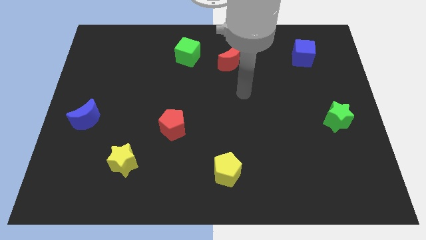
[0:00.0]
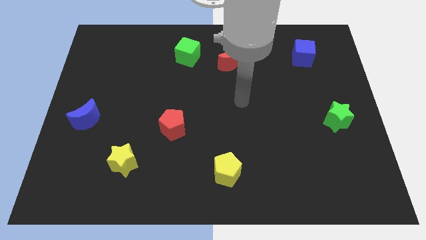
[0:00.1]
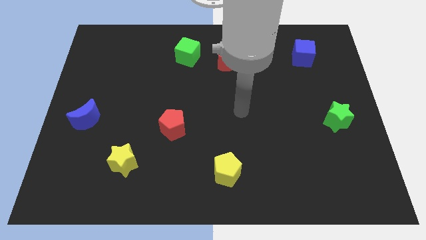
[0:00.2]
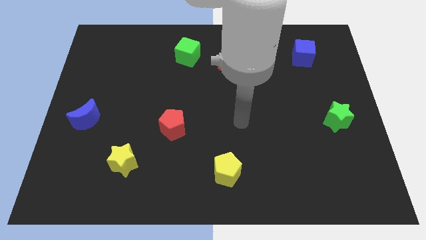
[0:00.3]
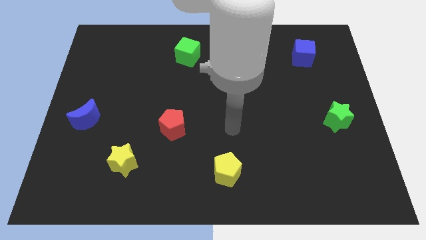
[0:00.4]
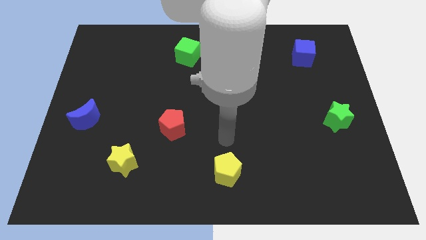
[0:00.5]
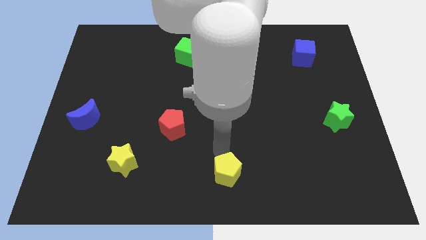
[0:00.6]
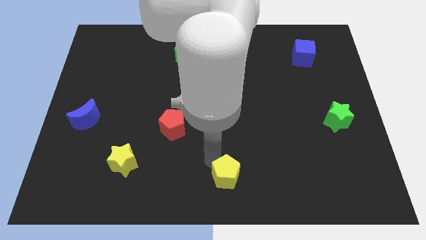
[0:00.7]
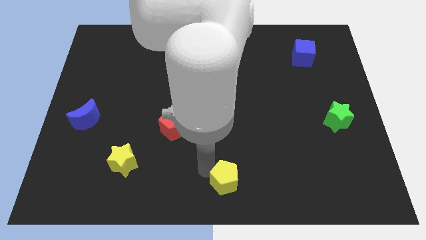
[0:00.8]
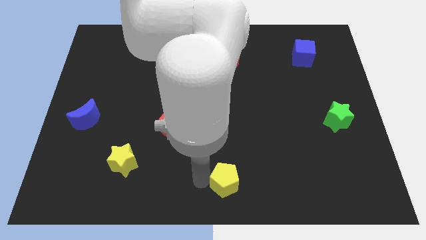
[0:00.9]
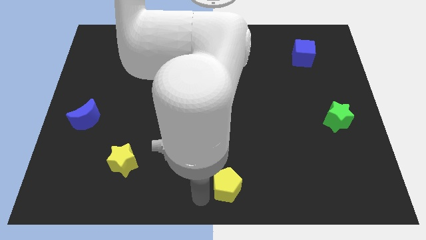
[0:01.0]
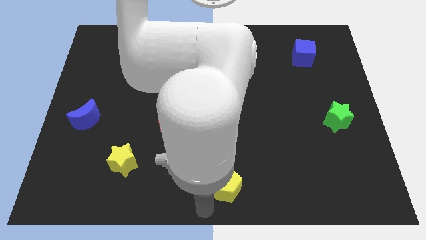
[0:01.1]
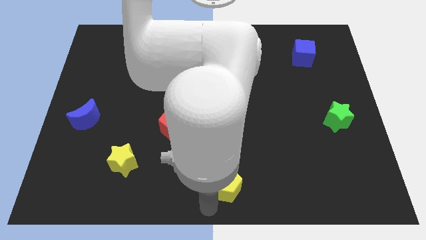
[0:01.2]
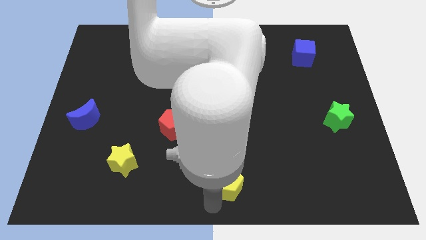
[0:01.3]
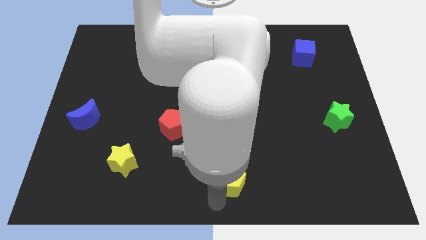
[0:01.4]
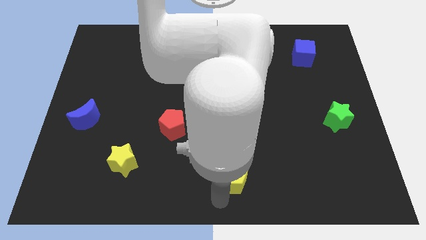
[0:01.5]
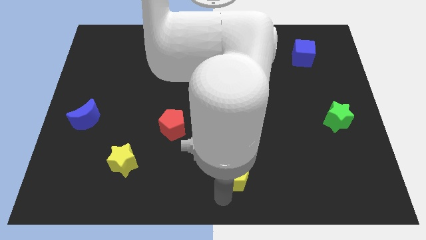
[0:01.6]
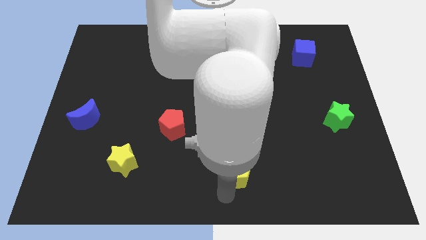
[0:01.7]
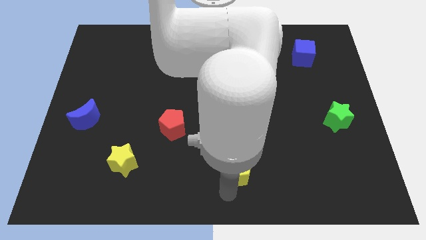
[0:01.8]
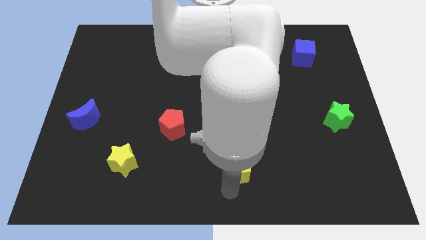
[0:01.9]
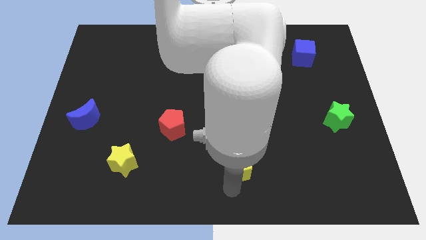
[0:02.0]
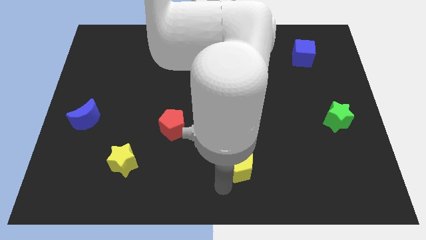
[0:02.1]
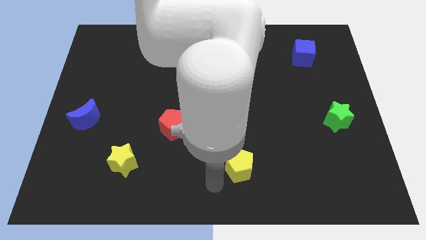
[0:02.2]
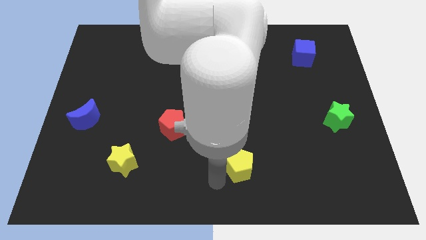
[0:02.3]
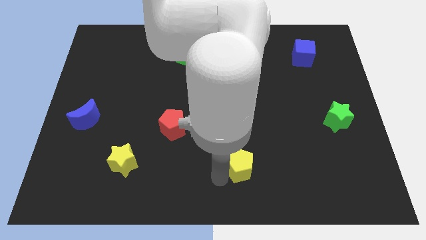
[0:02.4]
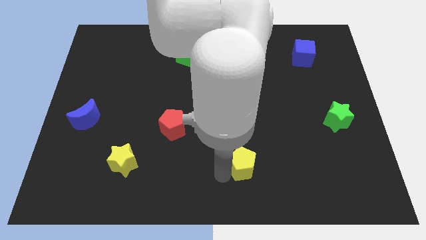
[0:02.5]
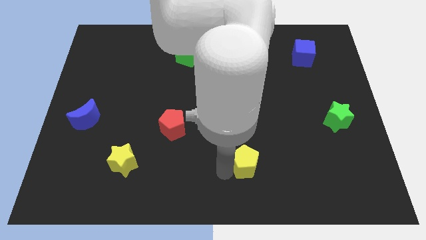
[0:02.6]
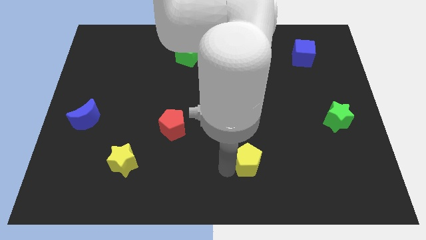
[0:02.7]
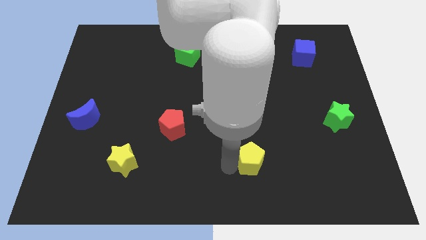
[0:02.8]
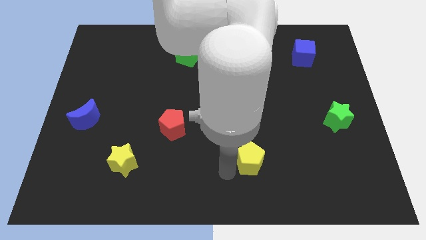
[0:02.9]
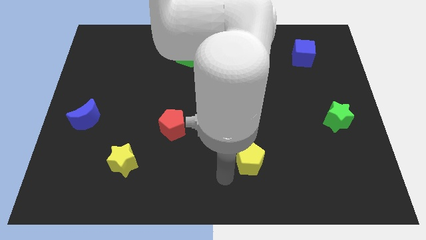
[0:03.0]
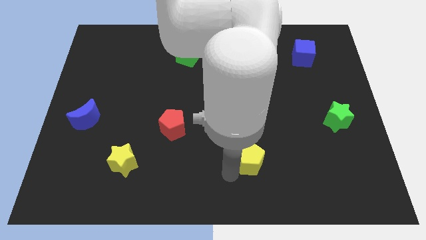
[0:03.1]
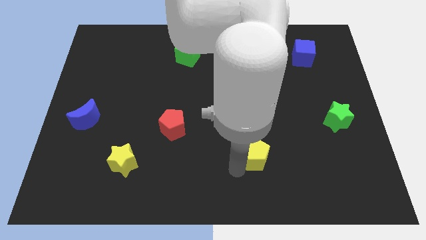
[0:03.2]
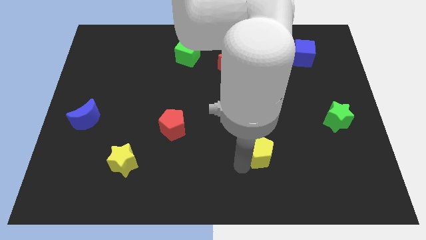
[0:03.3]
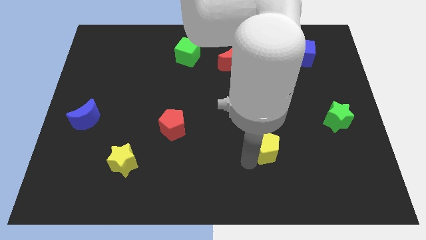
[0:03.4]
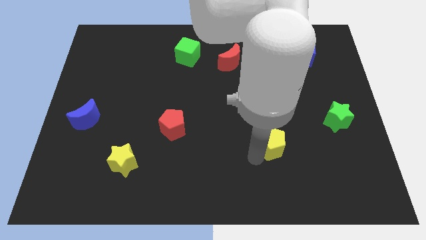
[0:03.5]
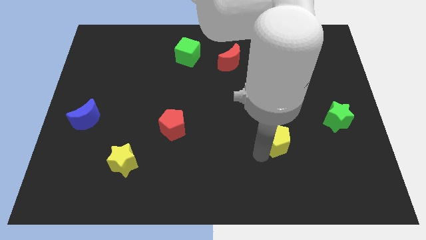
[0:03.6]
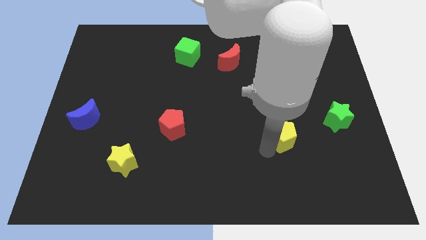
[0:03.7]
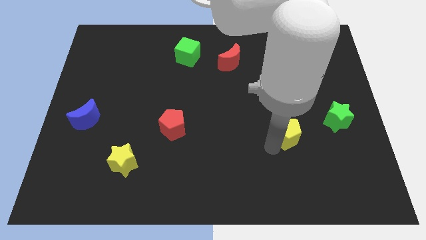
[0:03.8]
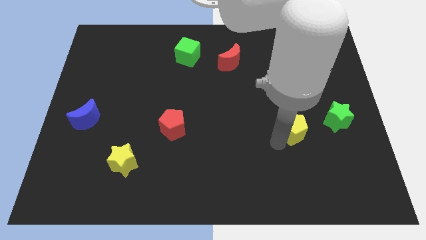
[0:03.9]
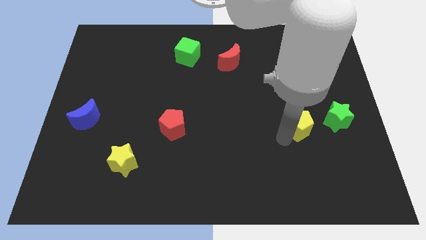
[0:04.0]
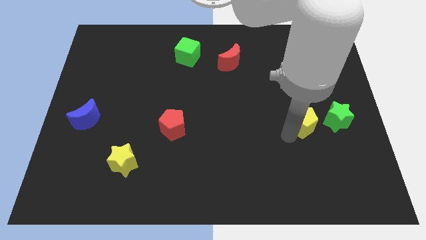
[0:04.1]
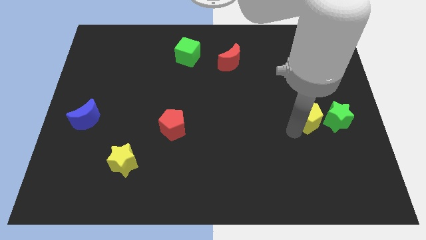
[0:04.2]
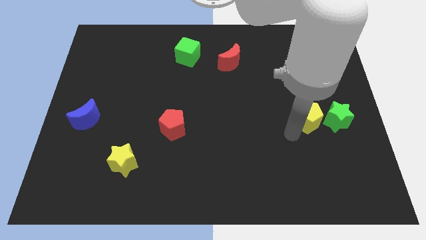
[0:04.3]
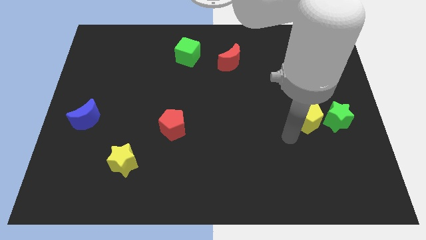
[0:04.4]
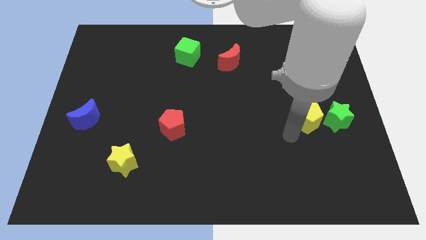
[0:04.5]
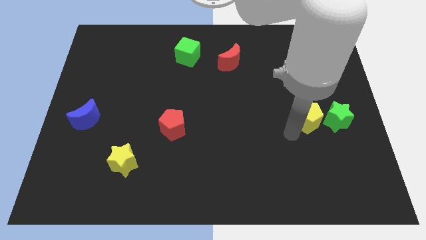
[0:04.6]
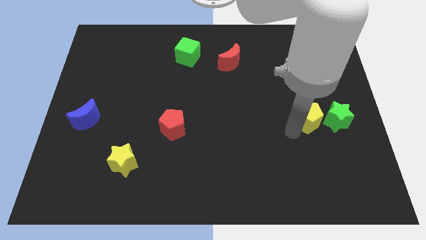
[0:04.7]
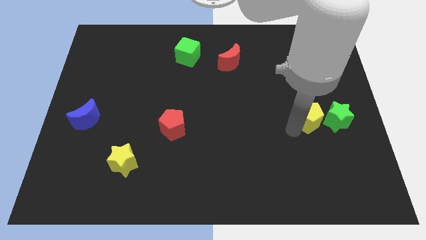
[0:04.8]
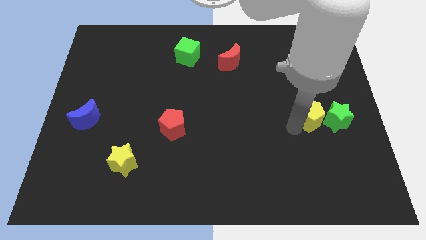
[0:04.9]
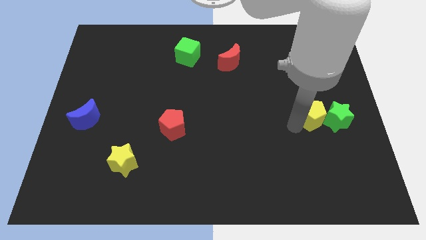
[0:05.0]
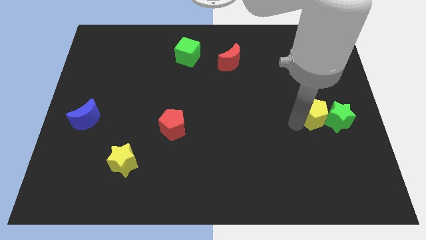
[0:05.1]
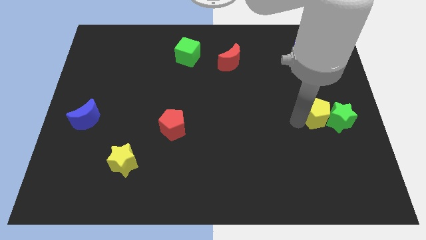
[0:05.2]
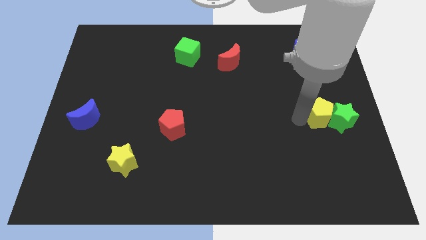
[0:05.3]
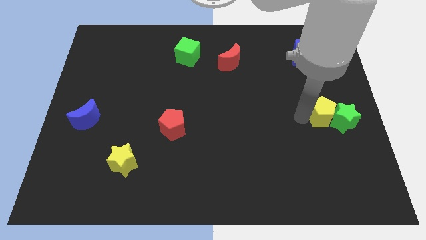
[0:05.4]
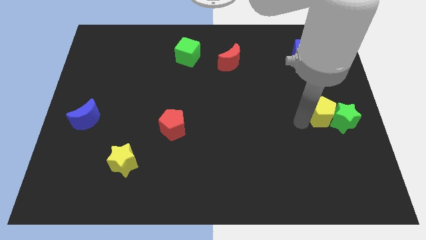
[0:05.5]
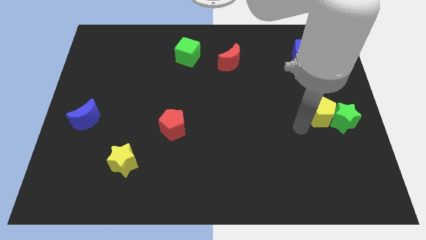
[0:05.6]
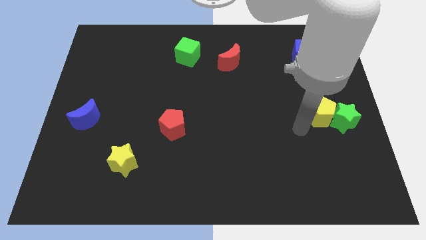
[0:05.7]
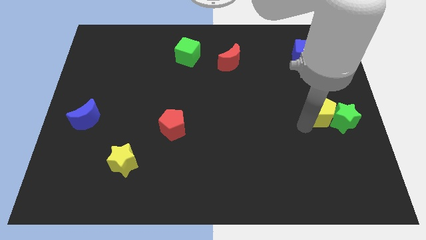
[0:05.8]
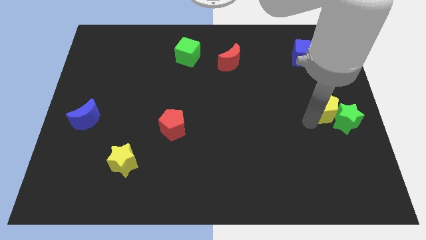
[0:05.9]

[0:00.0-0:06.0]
push the yellow pentagon to the right side of the board

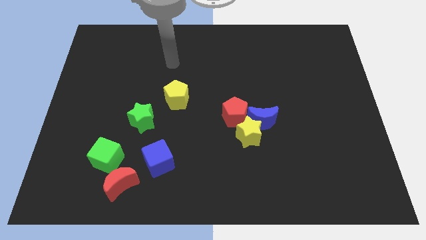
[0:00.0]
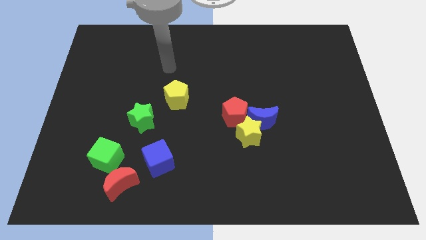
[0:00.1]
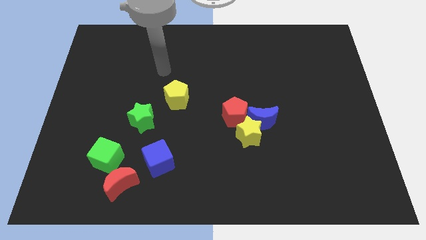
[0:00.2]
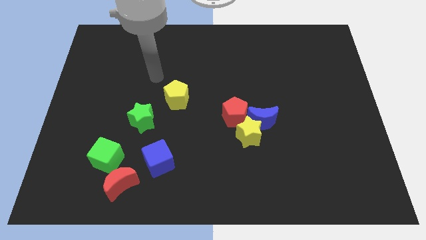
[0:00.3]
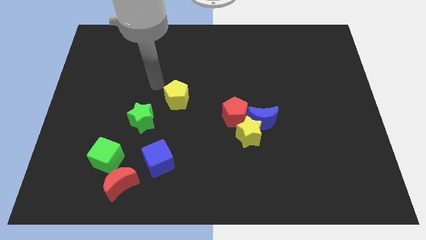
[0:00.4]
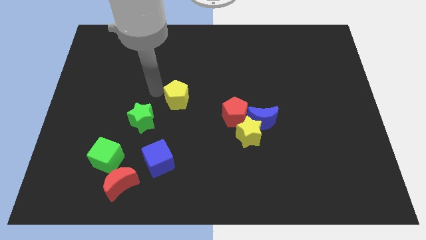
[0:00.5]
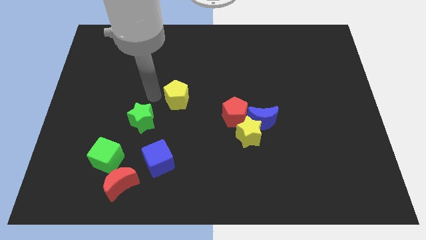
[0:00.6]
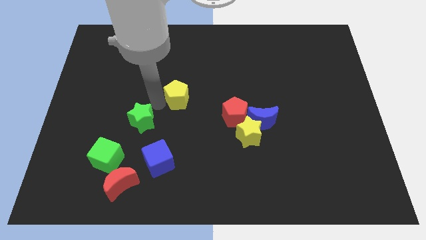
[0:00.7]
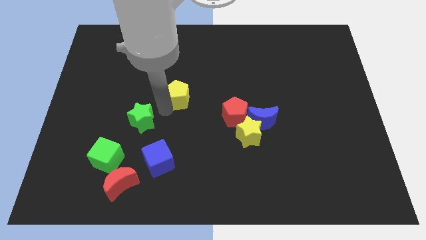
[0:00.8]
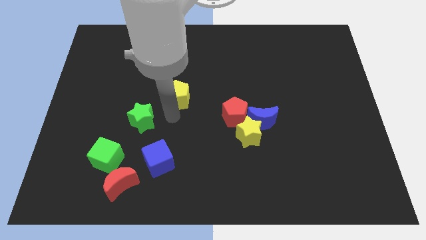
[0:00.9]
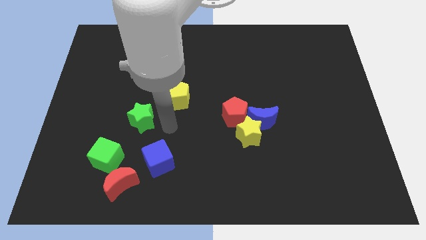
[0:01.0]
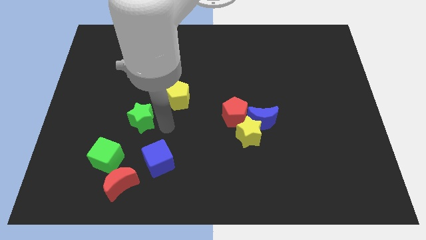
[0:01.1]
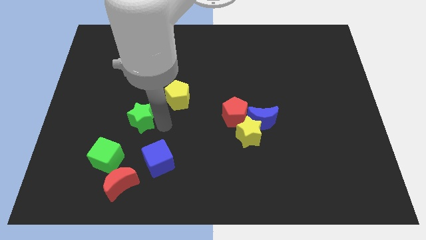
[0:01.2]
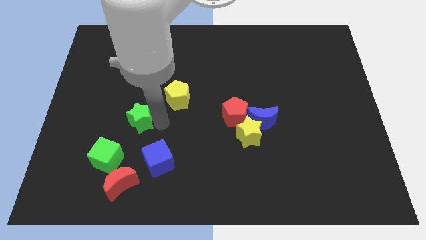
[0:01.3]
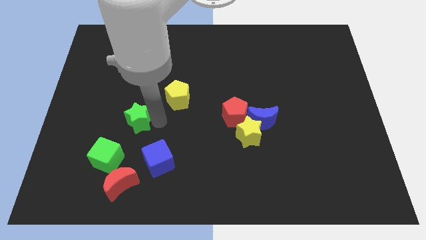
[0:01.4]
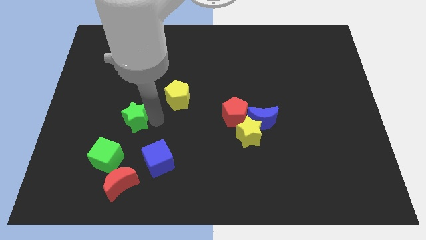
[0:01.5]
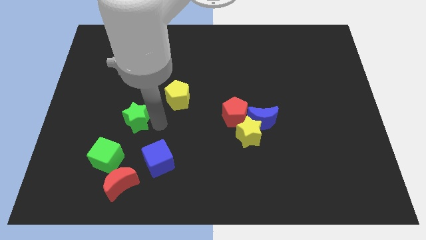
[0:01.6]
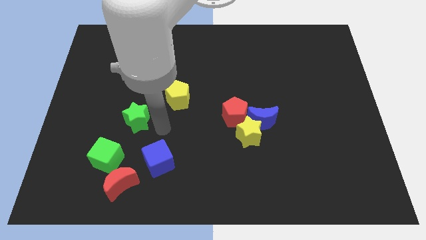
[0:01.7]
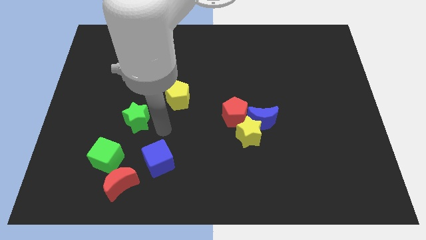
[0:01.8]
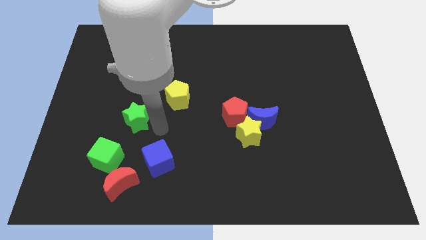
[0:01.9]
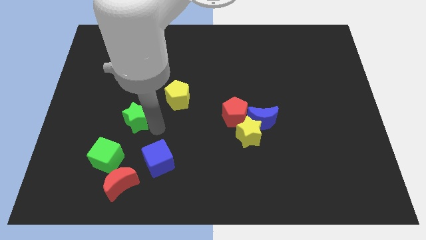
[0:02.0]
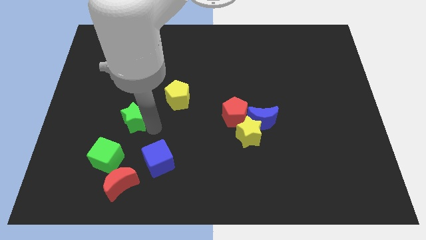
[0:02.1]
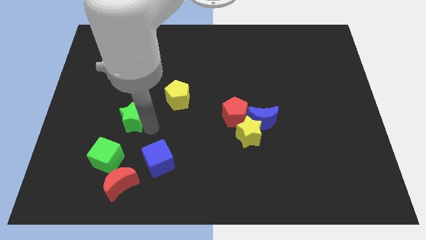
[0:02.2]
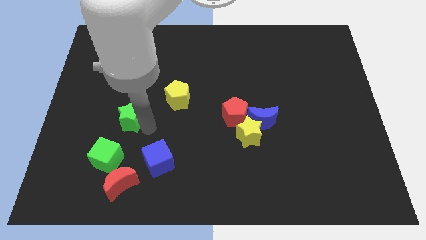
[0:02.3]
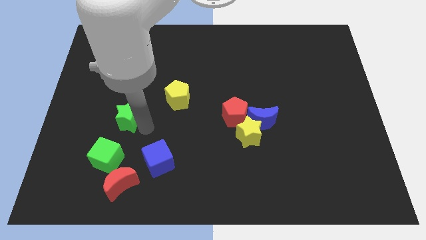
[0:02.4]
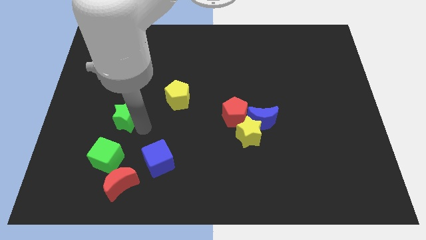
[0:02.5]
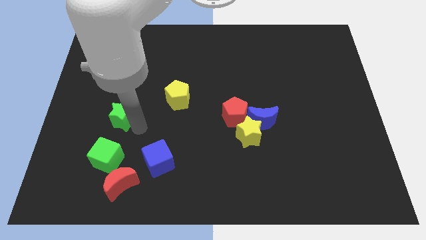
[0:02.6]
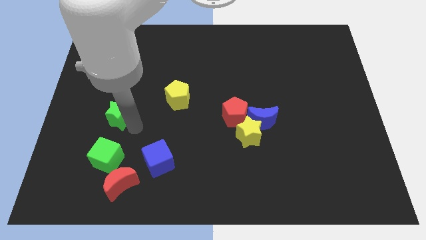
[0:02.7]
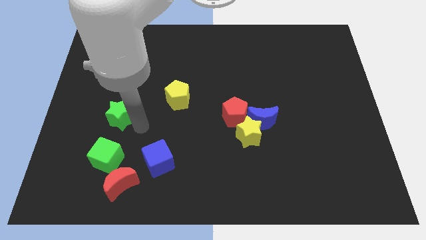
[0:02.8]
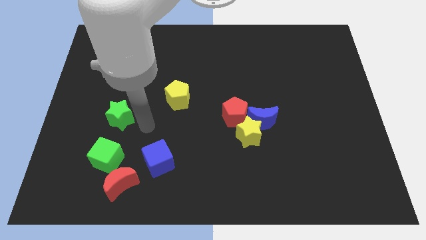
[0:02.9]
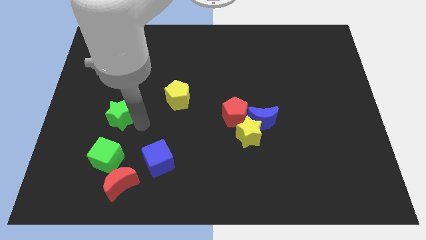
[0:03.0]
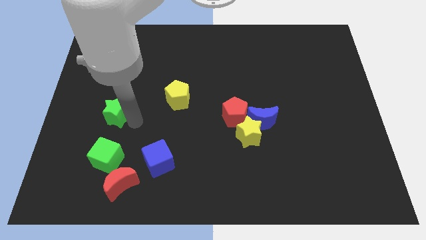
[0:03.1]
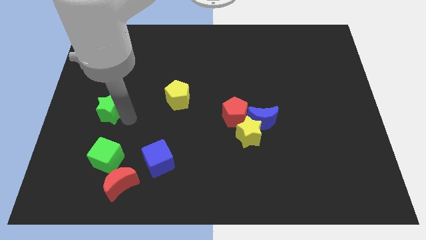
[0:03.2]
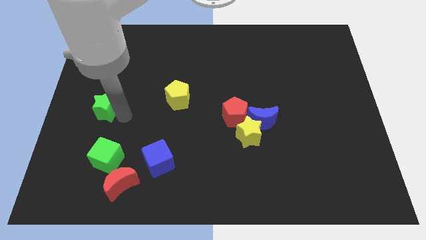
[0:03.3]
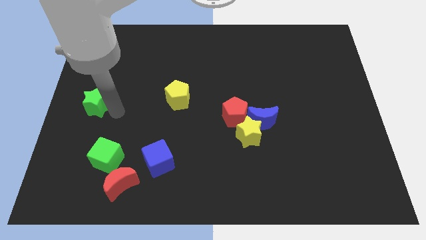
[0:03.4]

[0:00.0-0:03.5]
slide the green star to the center left
